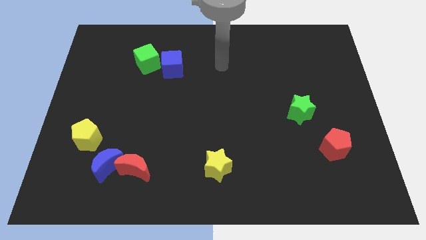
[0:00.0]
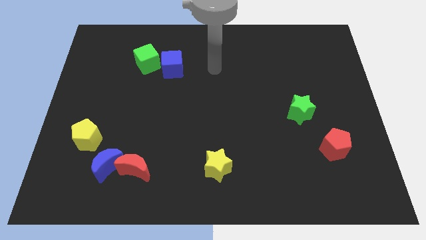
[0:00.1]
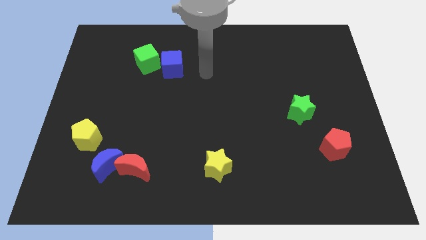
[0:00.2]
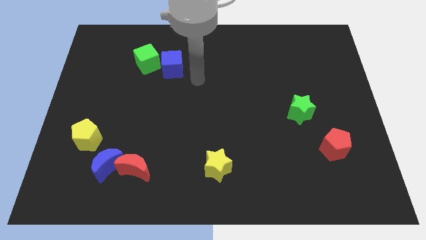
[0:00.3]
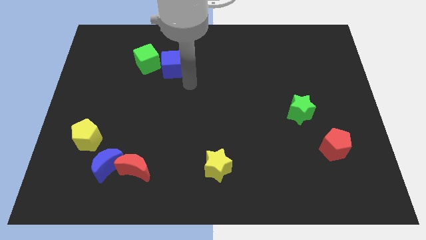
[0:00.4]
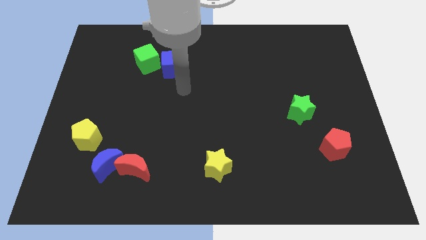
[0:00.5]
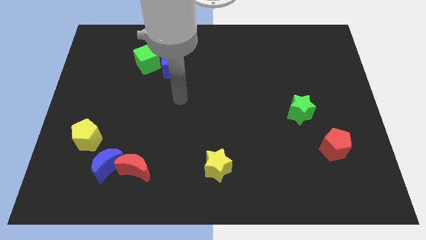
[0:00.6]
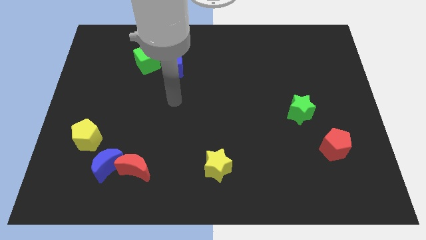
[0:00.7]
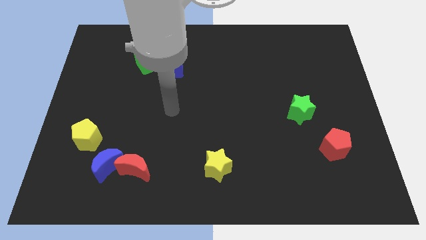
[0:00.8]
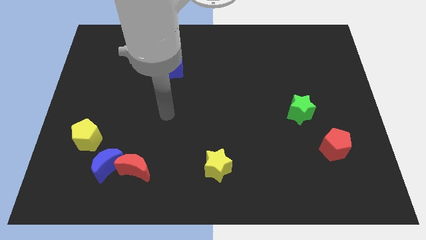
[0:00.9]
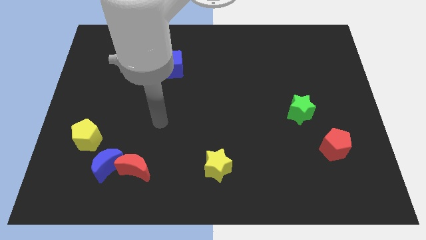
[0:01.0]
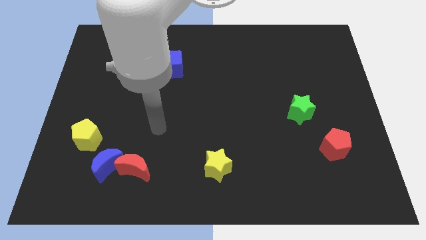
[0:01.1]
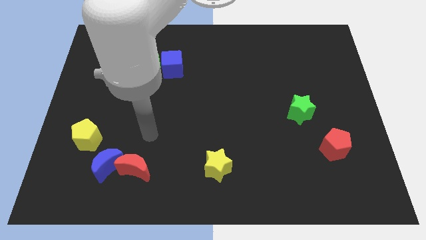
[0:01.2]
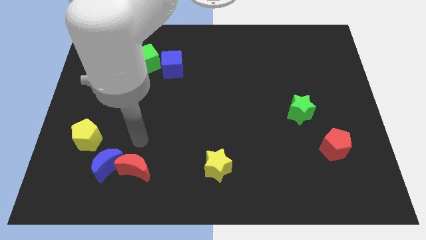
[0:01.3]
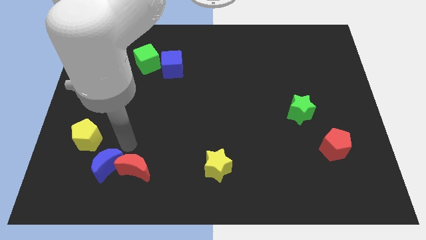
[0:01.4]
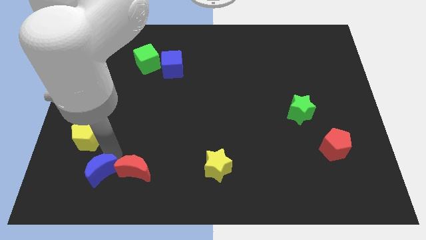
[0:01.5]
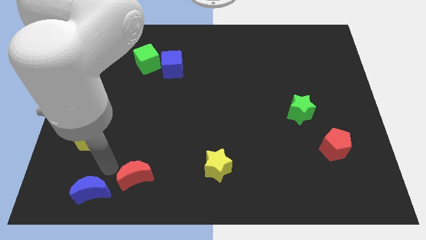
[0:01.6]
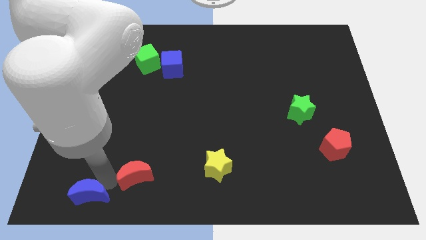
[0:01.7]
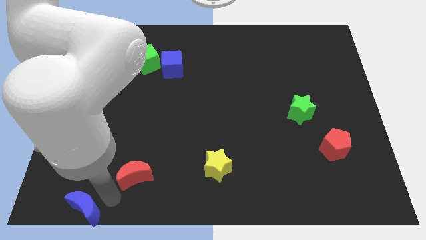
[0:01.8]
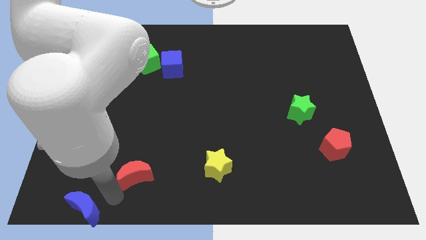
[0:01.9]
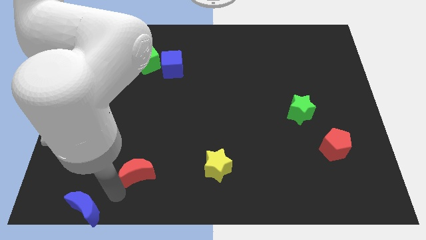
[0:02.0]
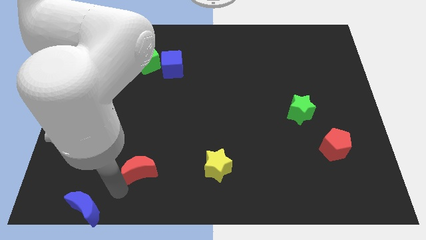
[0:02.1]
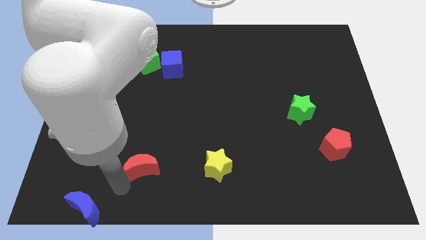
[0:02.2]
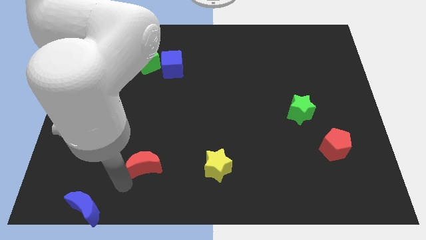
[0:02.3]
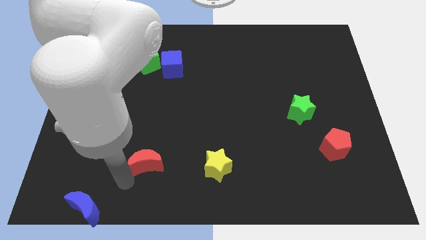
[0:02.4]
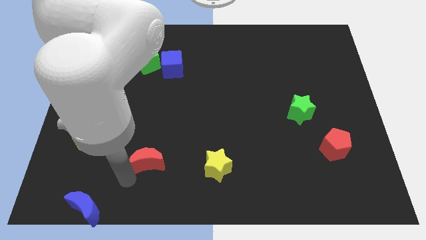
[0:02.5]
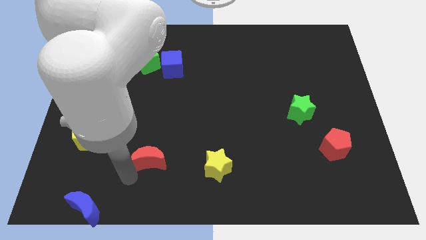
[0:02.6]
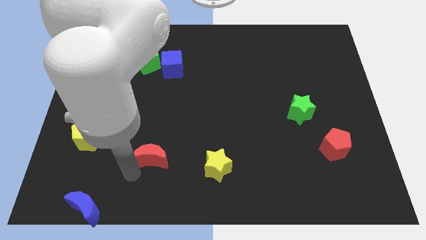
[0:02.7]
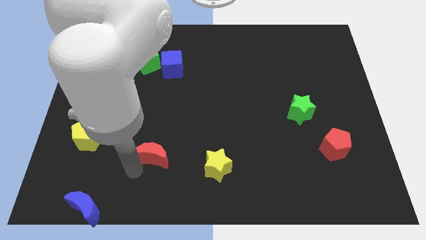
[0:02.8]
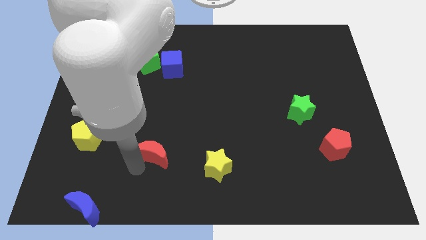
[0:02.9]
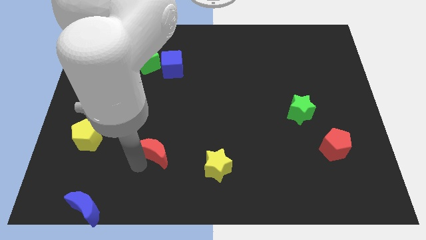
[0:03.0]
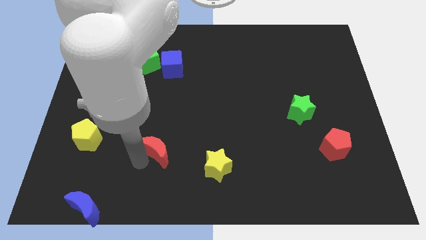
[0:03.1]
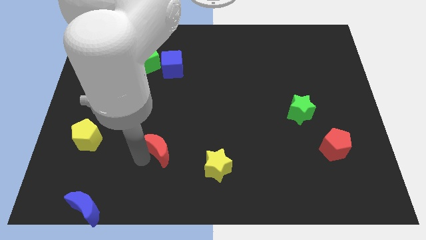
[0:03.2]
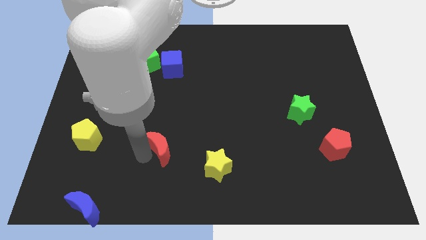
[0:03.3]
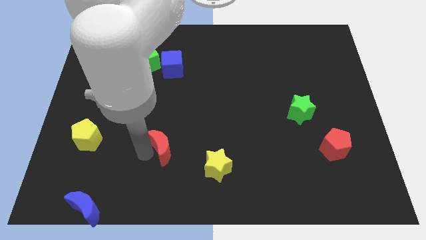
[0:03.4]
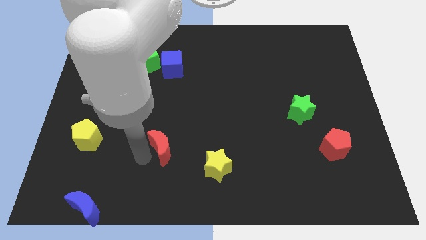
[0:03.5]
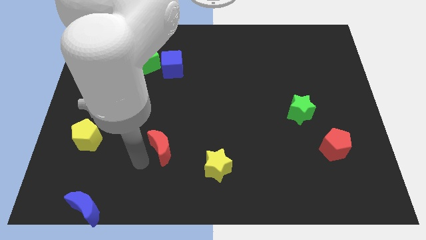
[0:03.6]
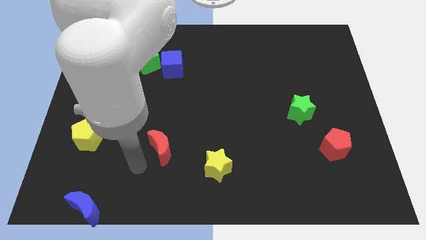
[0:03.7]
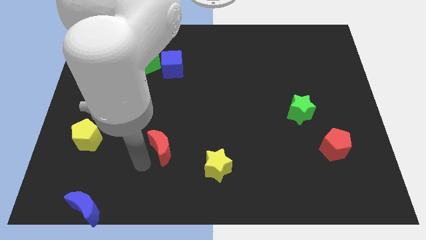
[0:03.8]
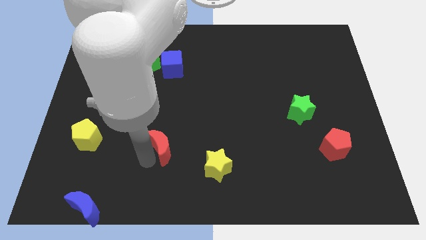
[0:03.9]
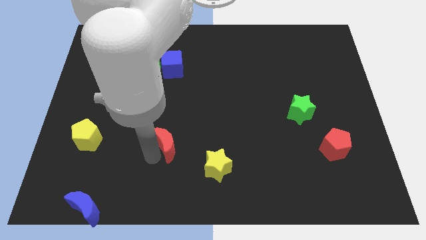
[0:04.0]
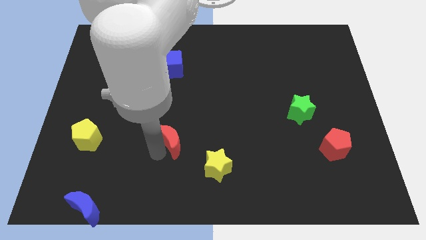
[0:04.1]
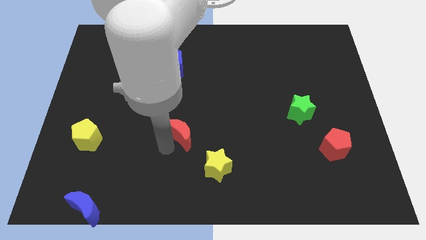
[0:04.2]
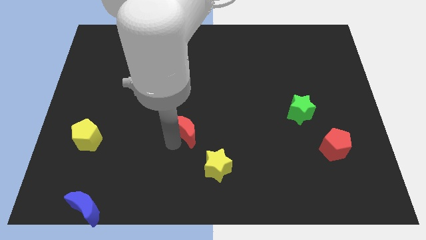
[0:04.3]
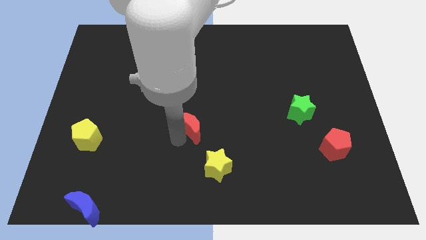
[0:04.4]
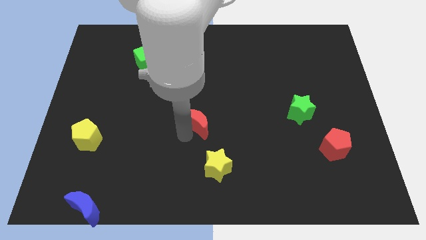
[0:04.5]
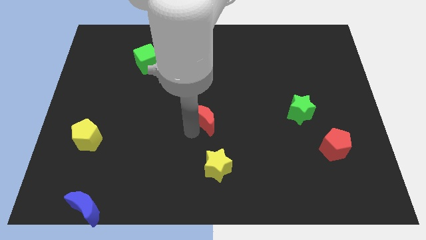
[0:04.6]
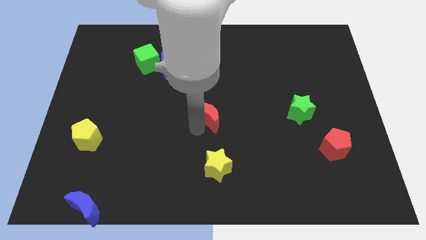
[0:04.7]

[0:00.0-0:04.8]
push the red moon diagonally upwards and to the right

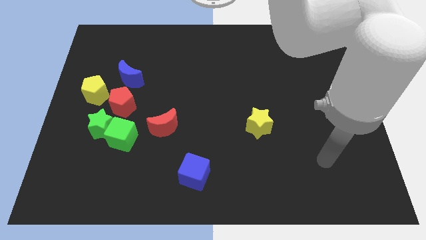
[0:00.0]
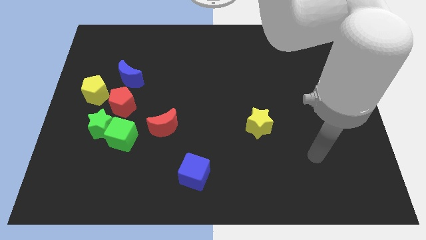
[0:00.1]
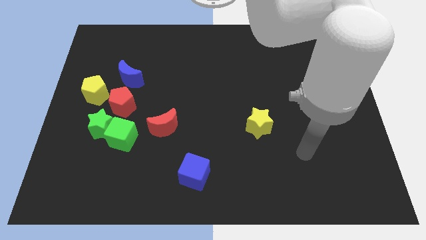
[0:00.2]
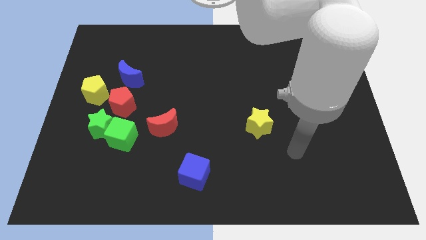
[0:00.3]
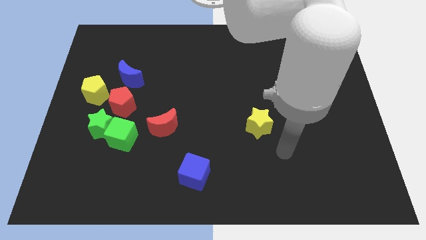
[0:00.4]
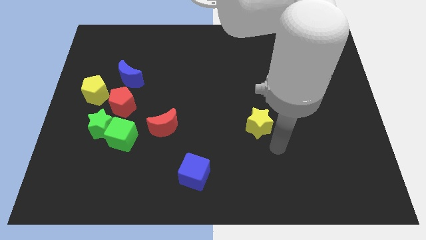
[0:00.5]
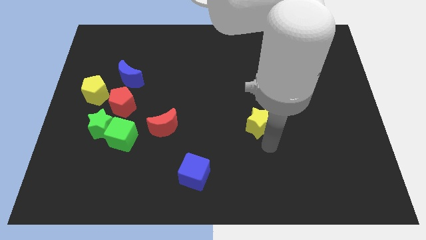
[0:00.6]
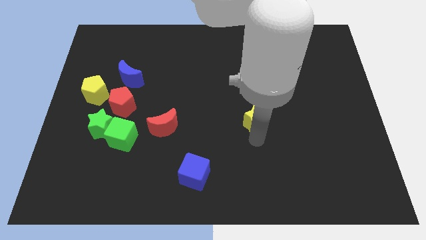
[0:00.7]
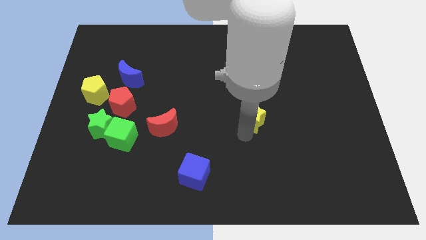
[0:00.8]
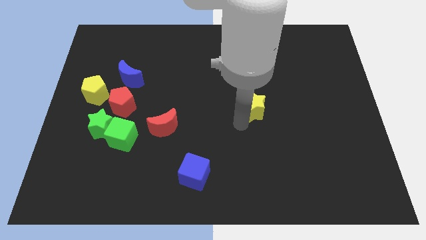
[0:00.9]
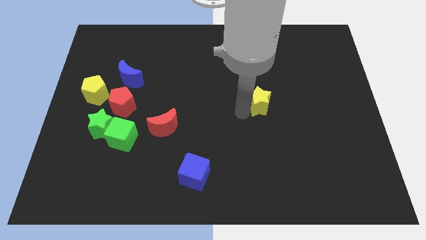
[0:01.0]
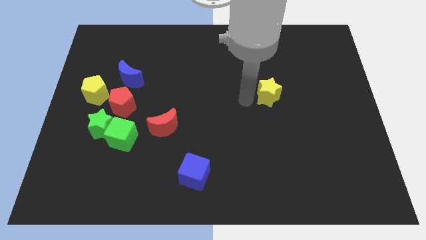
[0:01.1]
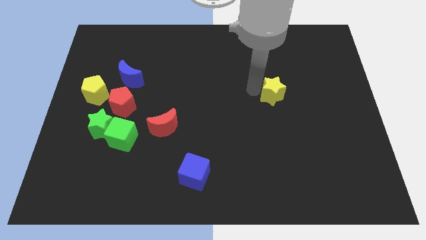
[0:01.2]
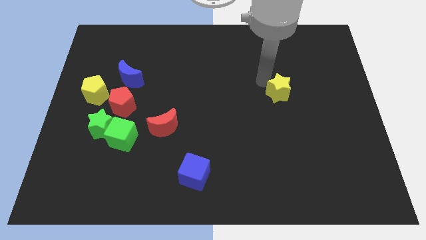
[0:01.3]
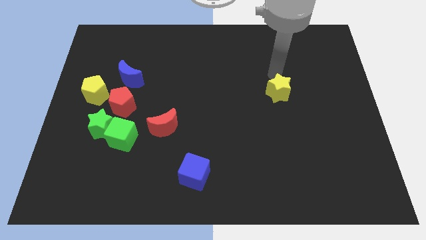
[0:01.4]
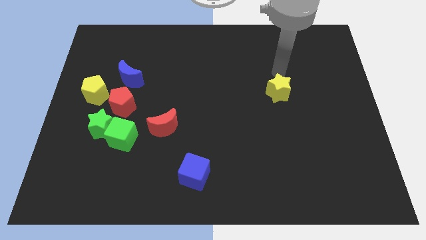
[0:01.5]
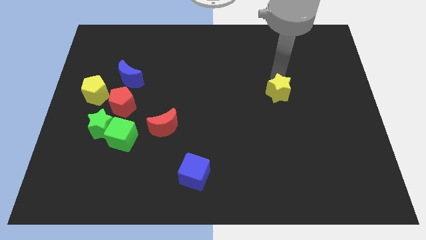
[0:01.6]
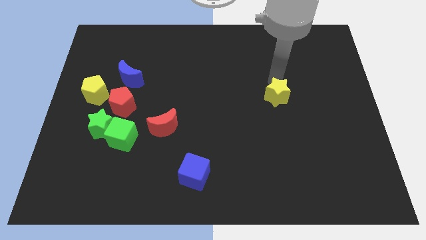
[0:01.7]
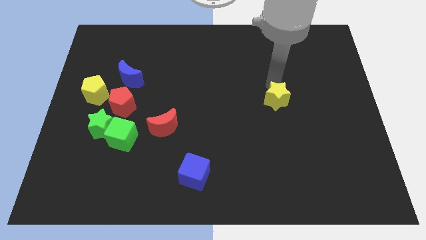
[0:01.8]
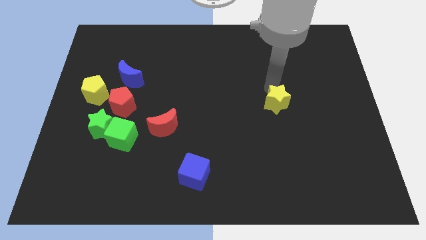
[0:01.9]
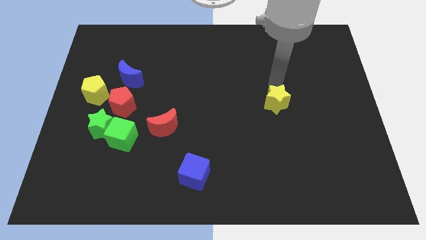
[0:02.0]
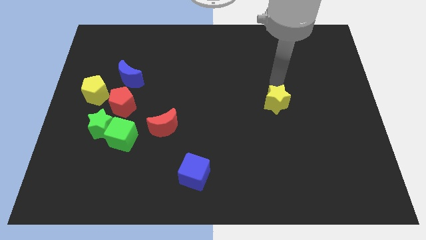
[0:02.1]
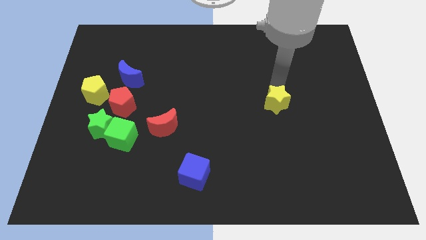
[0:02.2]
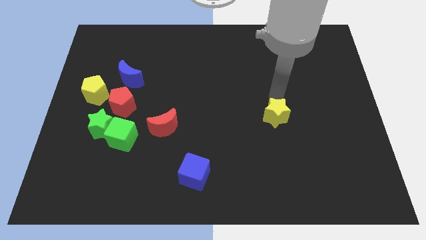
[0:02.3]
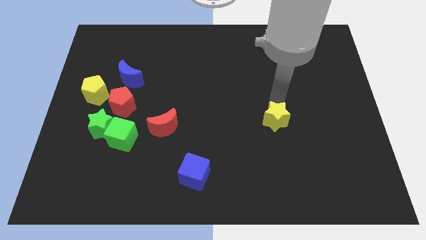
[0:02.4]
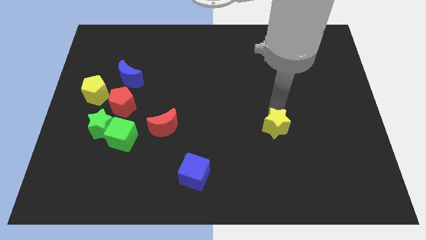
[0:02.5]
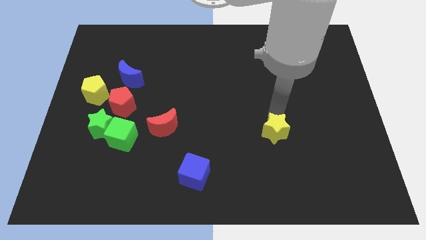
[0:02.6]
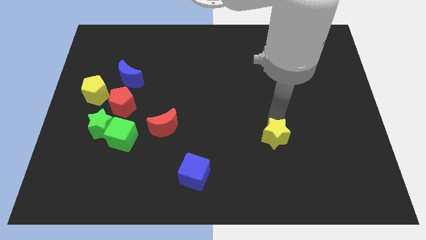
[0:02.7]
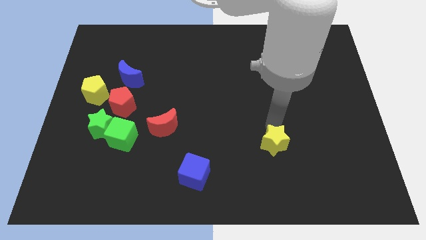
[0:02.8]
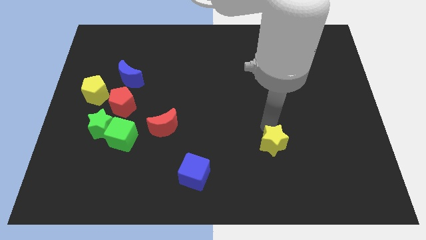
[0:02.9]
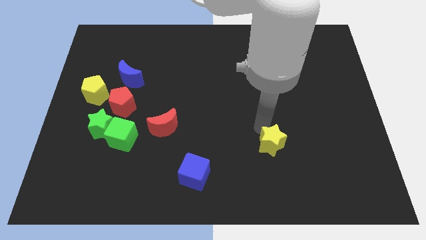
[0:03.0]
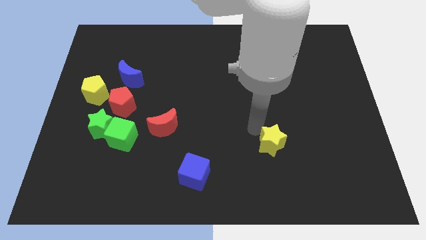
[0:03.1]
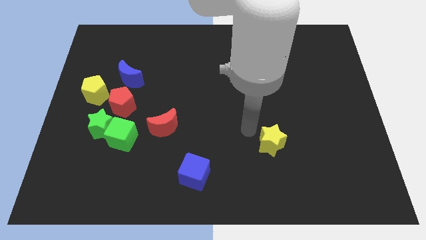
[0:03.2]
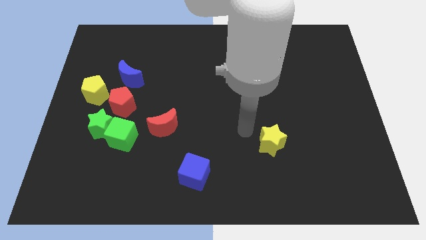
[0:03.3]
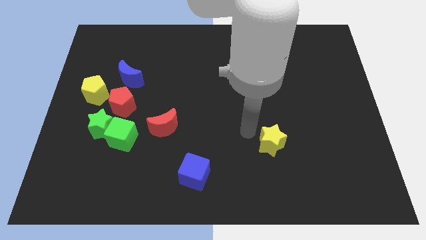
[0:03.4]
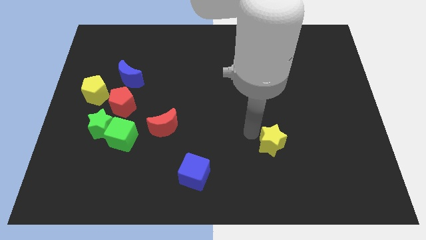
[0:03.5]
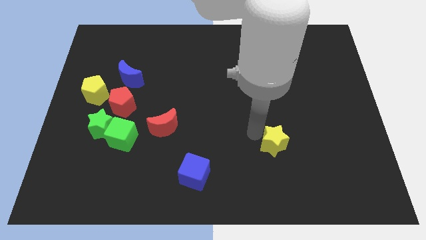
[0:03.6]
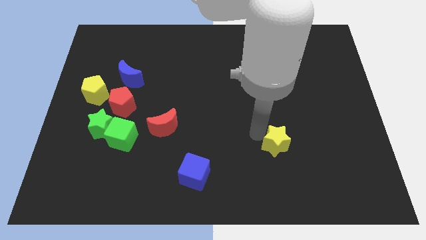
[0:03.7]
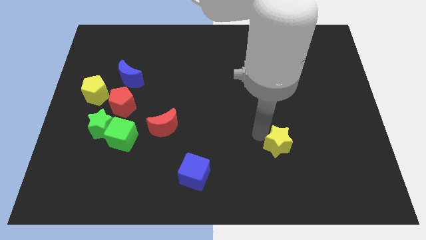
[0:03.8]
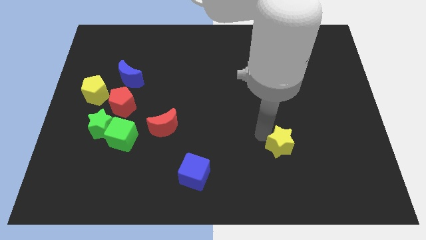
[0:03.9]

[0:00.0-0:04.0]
move the yellow star a little diagonally downwards and to the right
